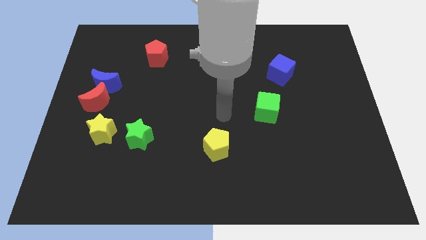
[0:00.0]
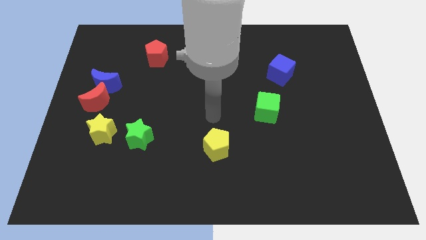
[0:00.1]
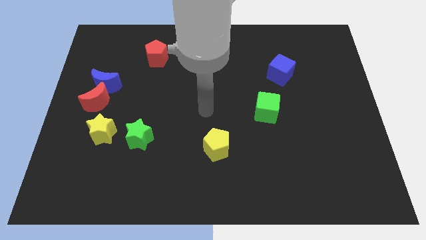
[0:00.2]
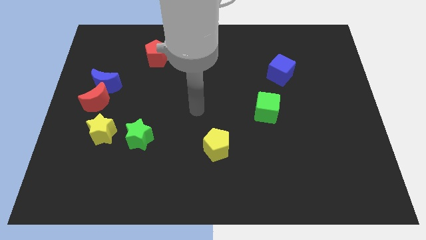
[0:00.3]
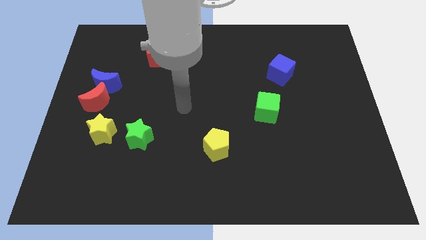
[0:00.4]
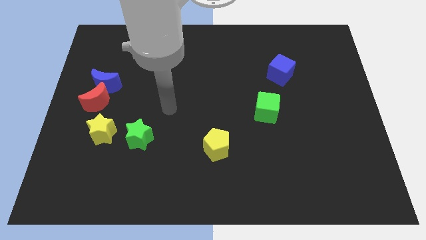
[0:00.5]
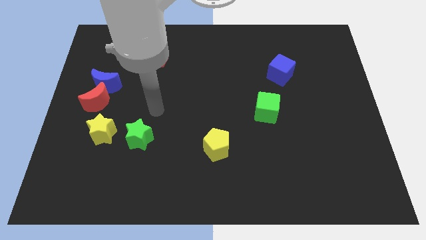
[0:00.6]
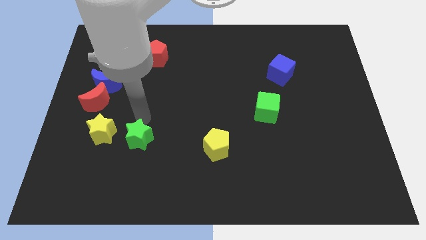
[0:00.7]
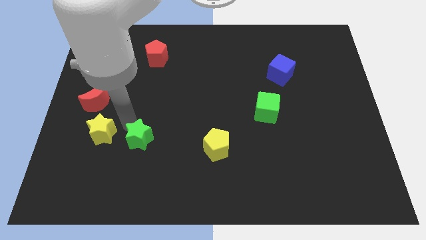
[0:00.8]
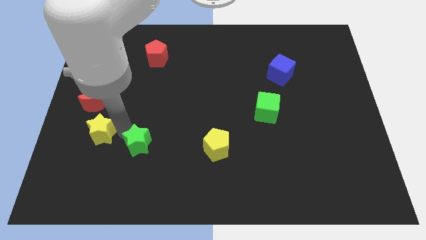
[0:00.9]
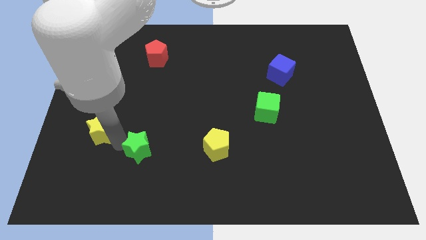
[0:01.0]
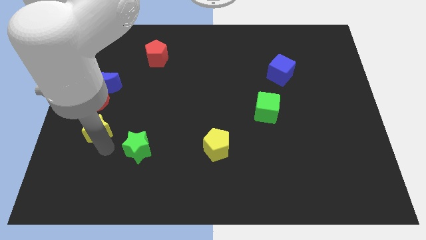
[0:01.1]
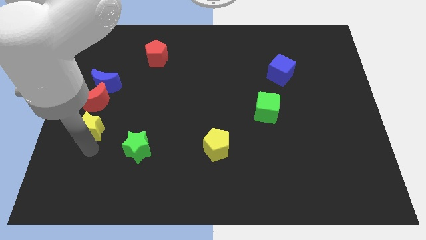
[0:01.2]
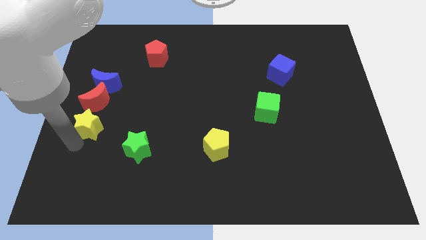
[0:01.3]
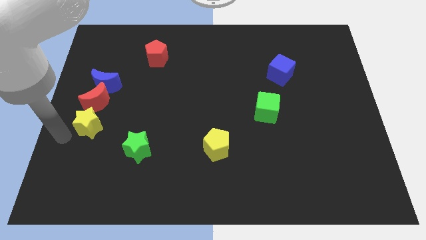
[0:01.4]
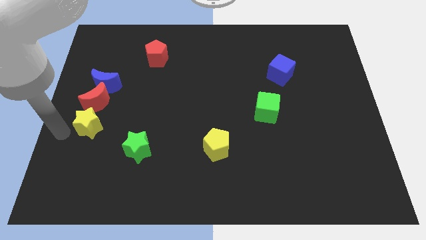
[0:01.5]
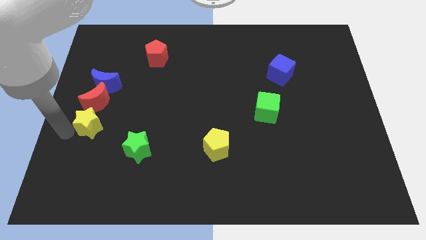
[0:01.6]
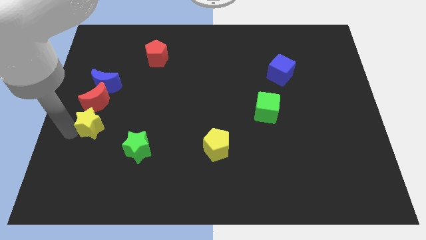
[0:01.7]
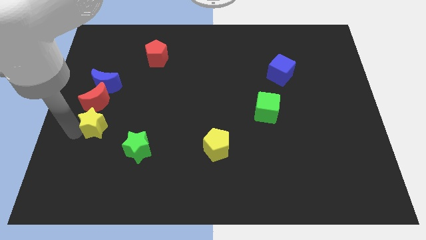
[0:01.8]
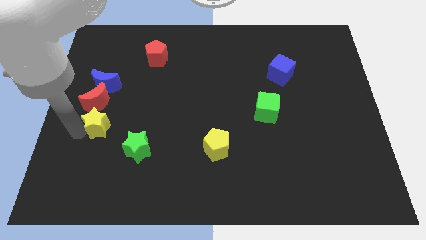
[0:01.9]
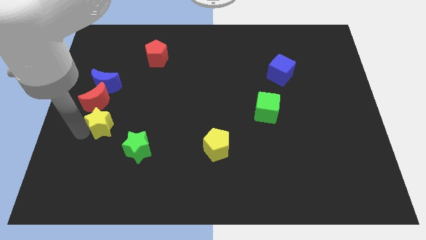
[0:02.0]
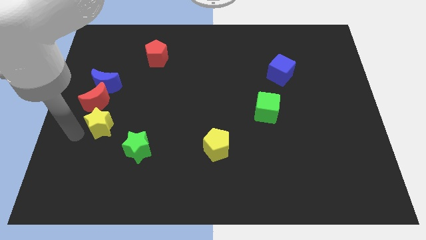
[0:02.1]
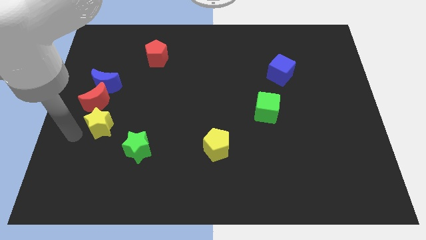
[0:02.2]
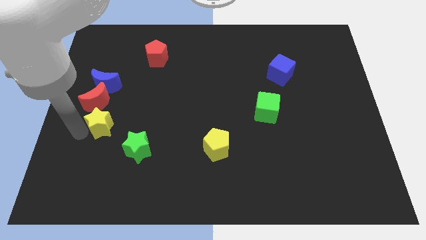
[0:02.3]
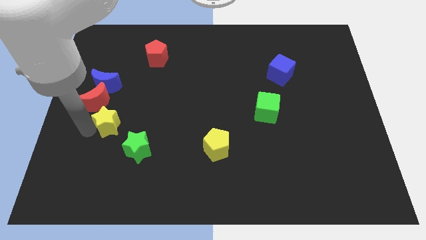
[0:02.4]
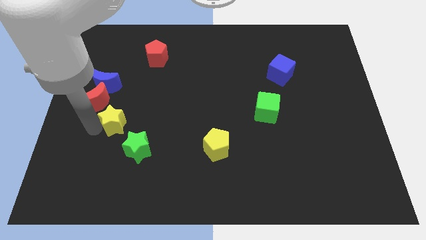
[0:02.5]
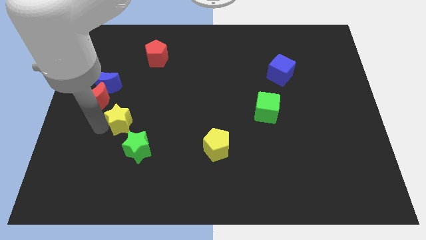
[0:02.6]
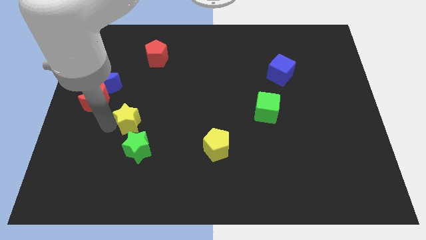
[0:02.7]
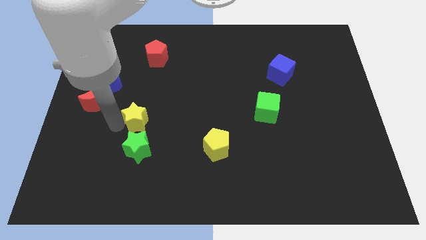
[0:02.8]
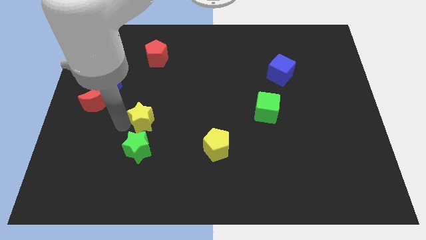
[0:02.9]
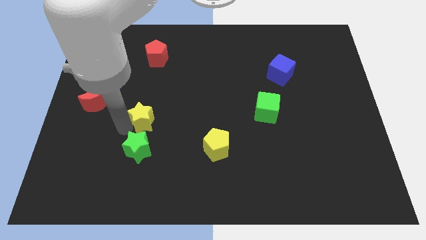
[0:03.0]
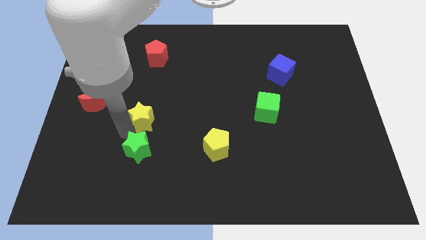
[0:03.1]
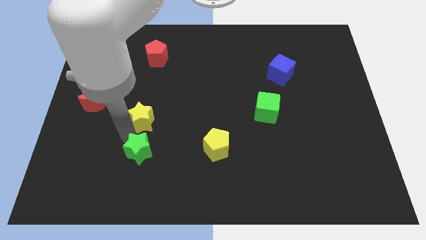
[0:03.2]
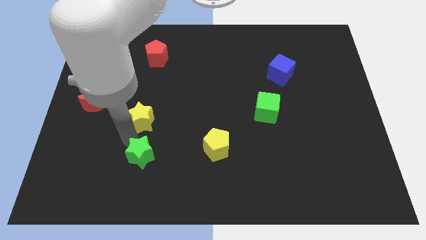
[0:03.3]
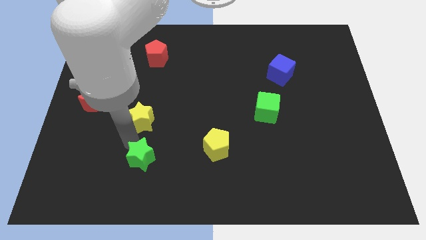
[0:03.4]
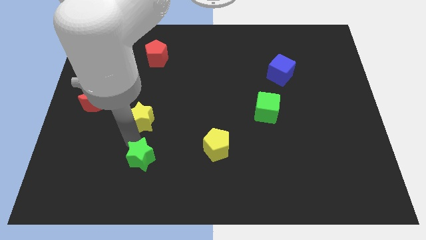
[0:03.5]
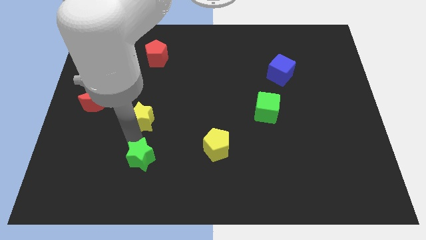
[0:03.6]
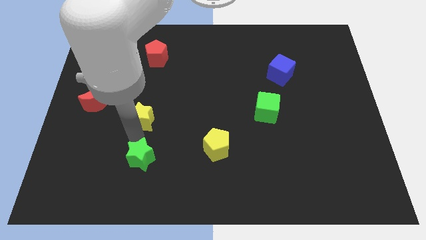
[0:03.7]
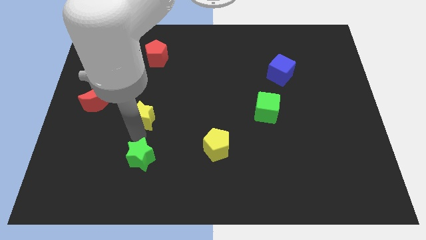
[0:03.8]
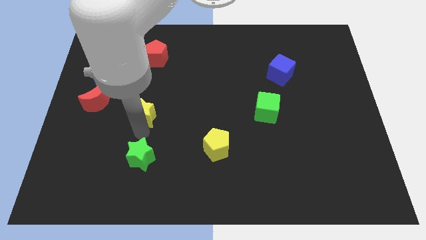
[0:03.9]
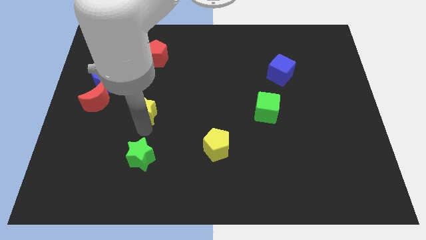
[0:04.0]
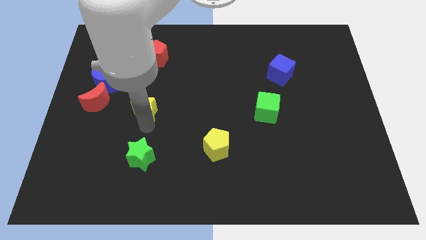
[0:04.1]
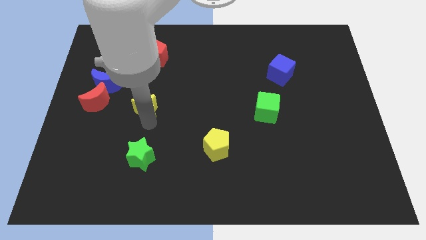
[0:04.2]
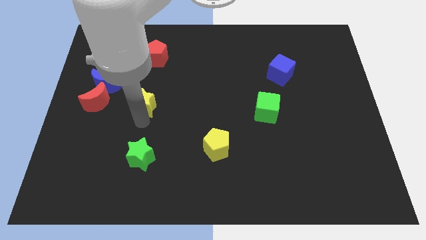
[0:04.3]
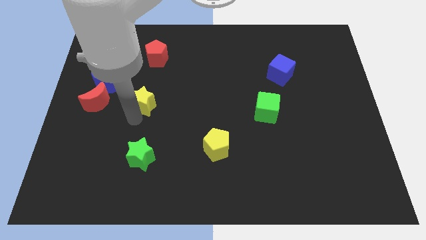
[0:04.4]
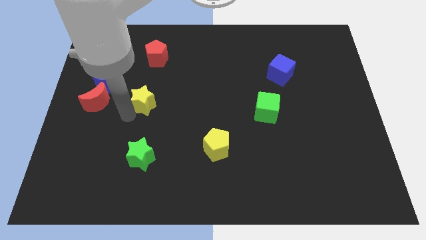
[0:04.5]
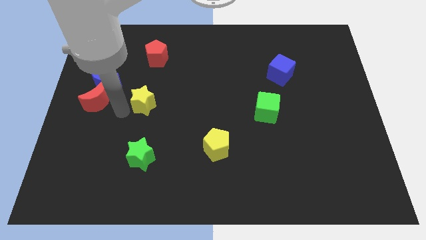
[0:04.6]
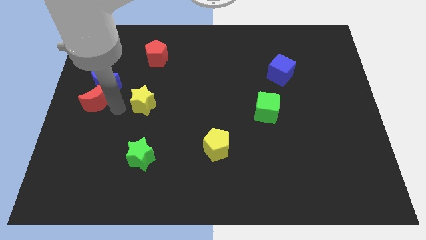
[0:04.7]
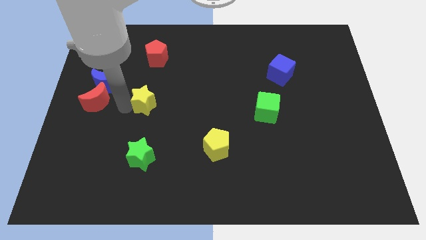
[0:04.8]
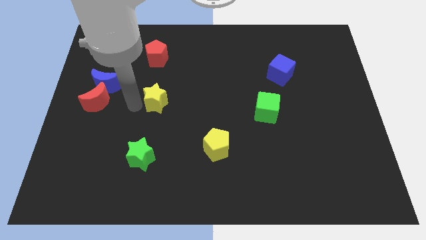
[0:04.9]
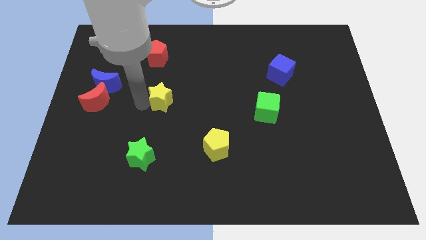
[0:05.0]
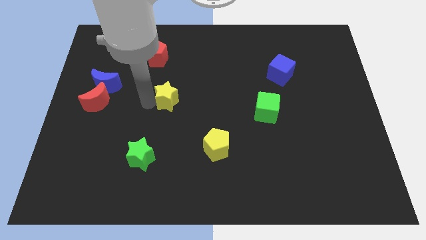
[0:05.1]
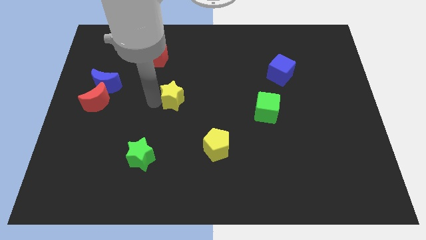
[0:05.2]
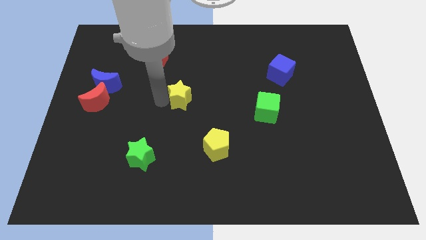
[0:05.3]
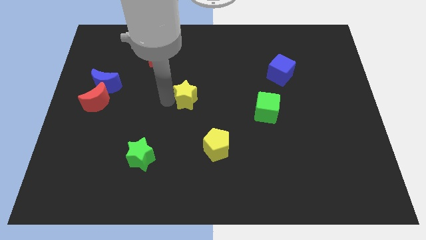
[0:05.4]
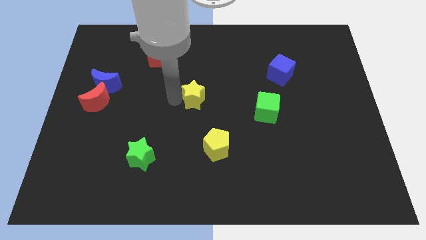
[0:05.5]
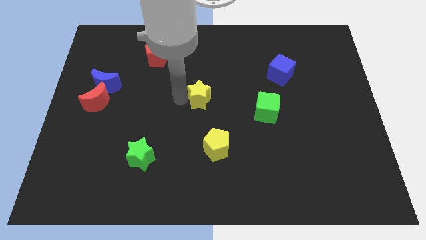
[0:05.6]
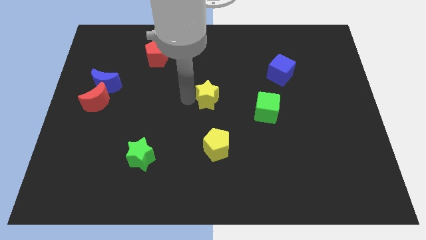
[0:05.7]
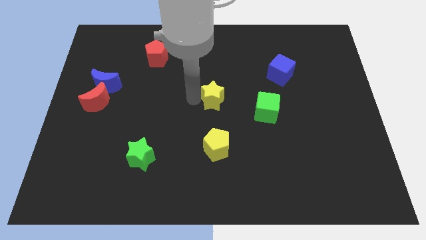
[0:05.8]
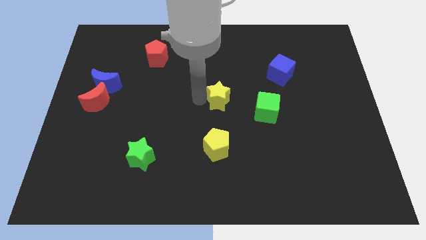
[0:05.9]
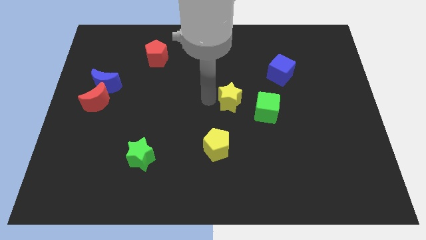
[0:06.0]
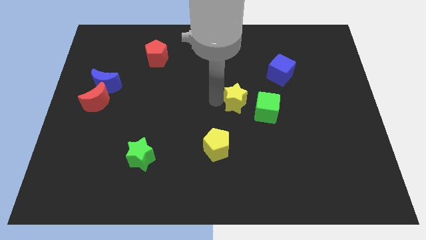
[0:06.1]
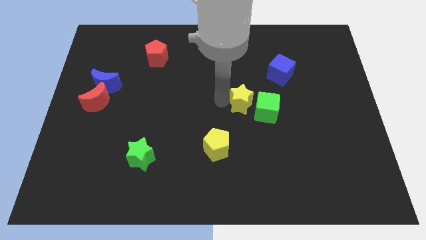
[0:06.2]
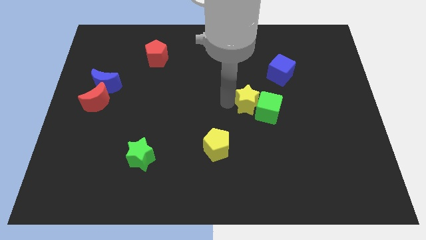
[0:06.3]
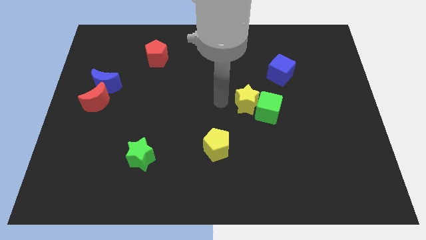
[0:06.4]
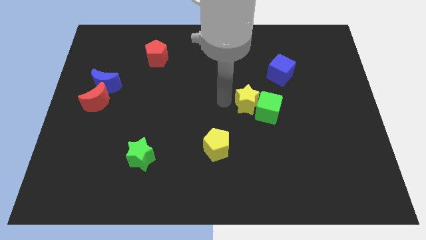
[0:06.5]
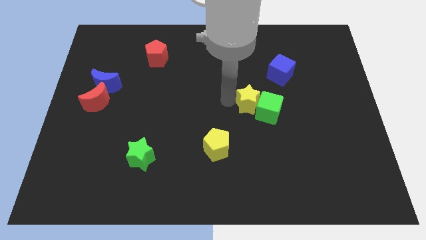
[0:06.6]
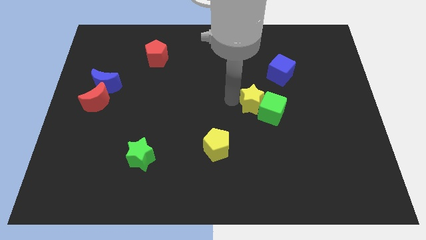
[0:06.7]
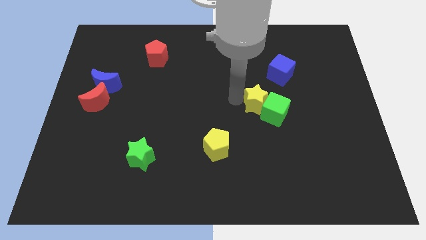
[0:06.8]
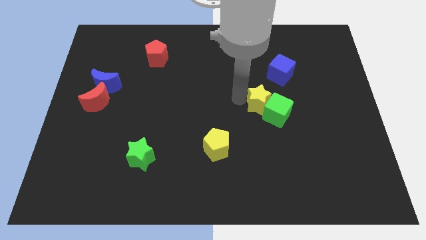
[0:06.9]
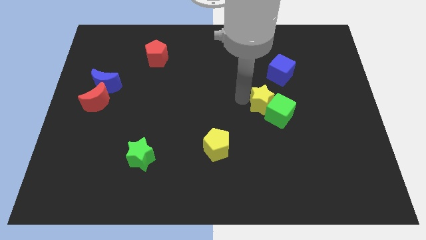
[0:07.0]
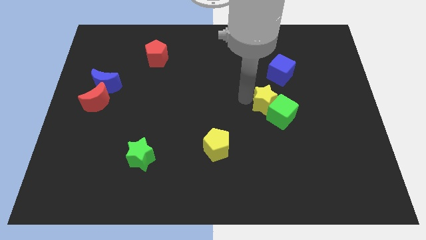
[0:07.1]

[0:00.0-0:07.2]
put the yellow star to the bottom of the blue cube
